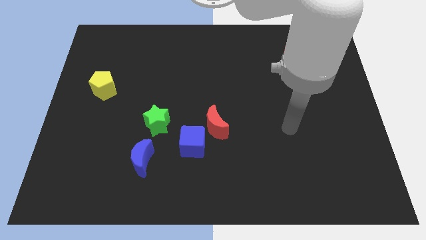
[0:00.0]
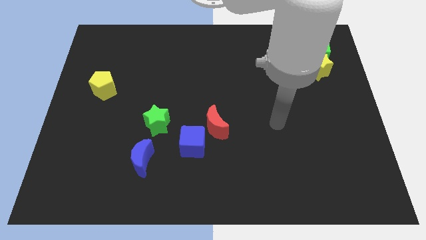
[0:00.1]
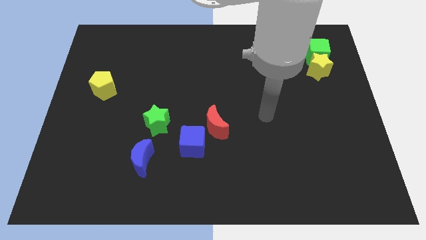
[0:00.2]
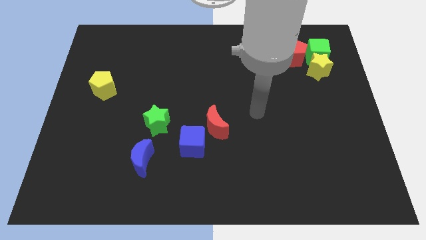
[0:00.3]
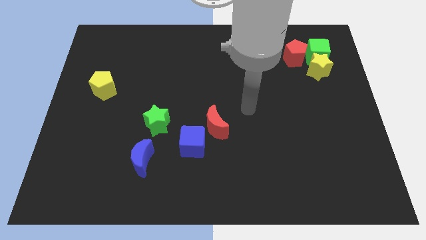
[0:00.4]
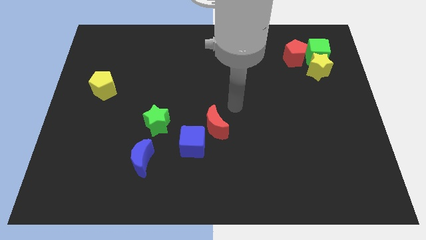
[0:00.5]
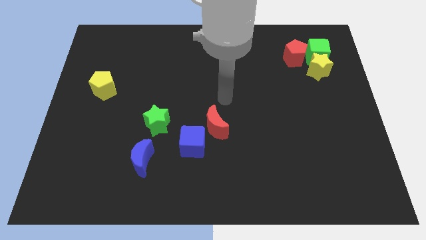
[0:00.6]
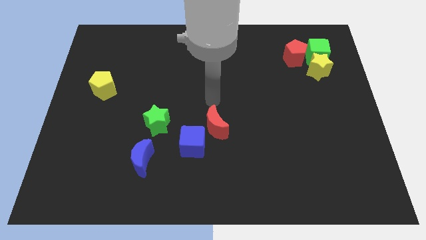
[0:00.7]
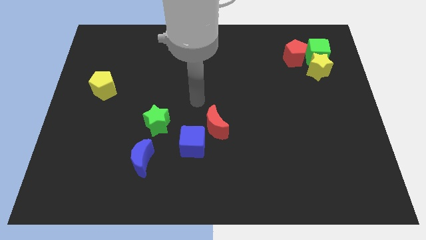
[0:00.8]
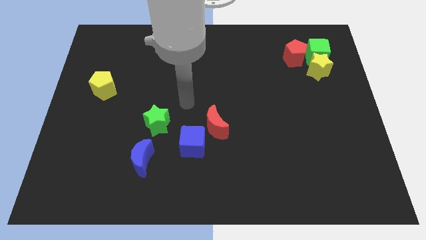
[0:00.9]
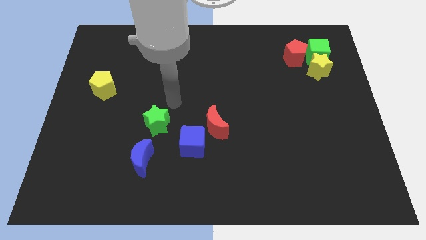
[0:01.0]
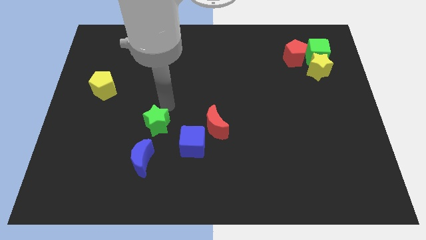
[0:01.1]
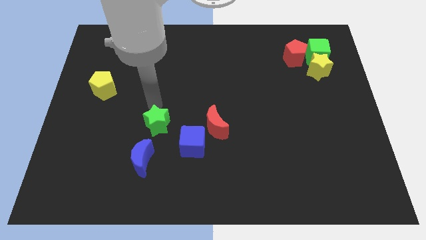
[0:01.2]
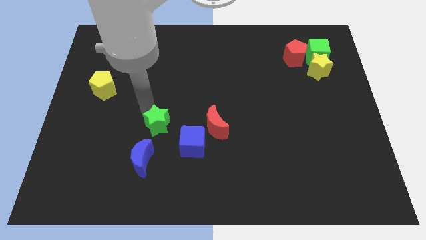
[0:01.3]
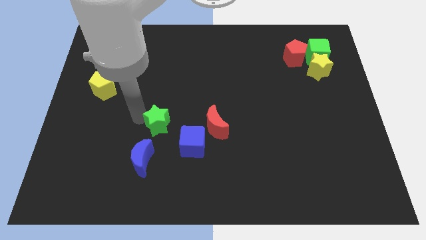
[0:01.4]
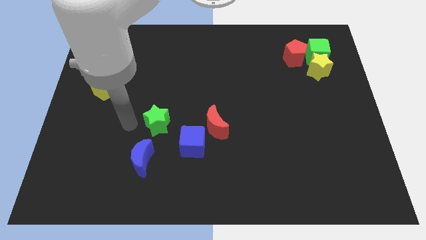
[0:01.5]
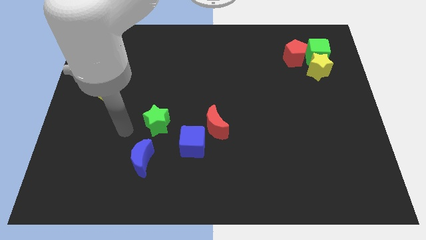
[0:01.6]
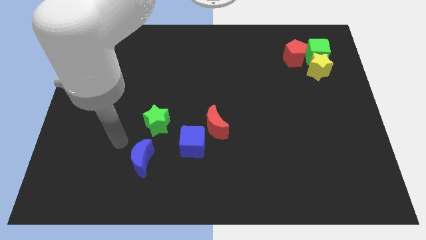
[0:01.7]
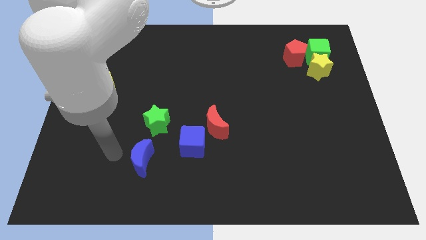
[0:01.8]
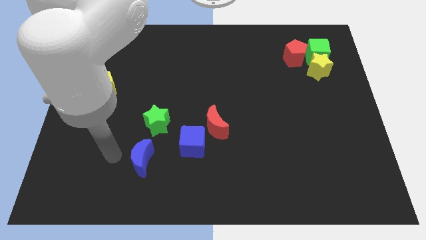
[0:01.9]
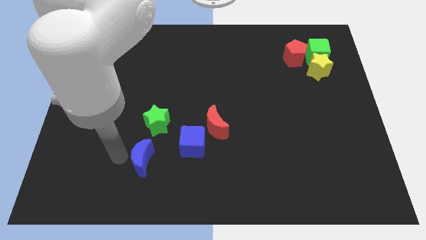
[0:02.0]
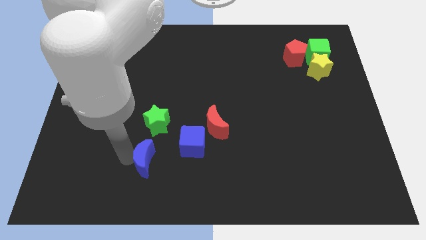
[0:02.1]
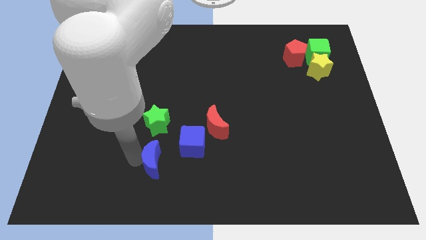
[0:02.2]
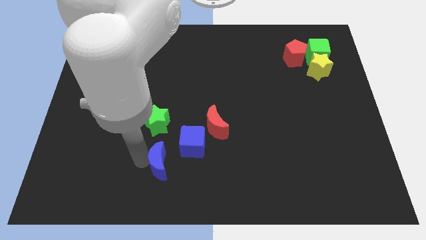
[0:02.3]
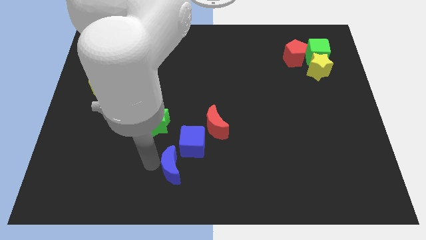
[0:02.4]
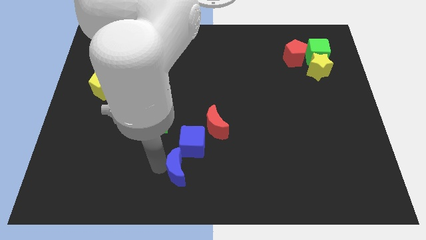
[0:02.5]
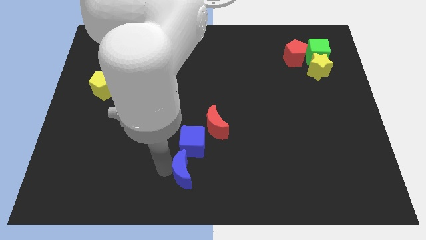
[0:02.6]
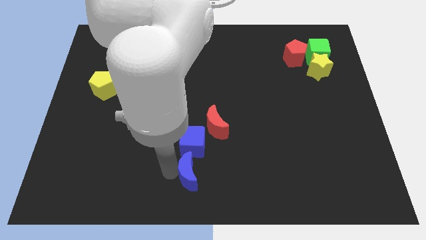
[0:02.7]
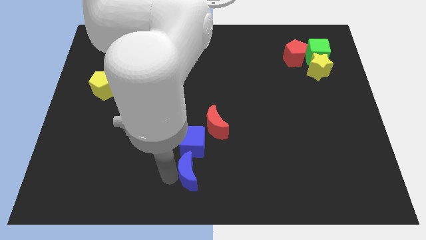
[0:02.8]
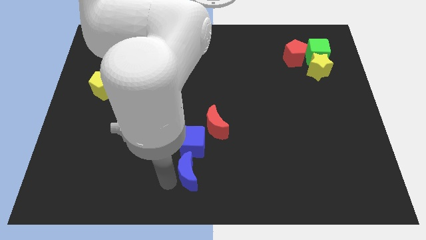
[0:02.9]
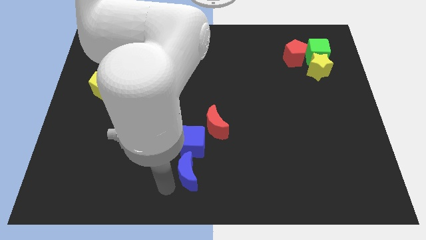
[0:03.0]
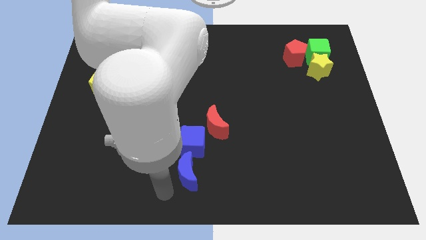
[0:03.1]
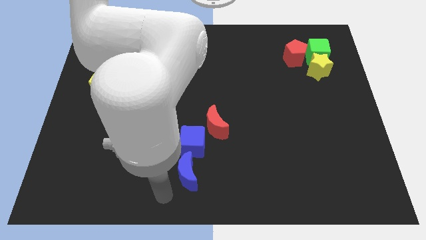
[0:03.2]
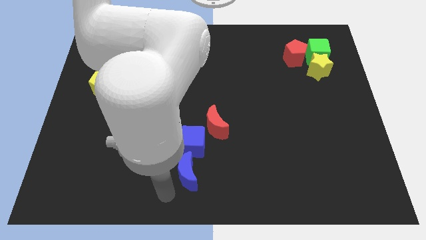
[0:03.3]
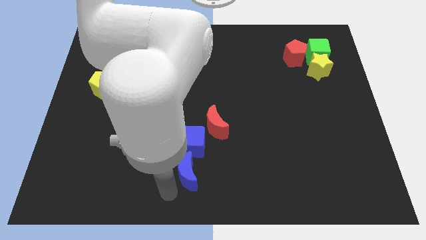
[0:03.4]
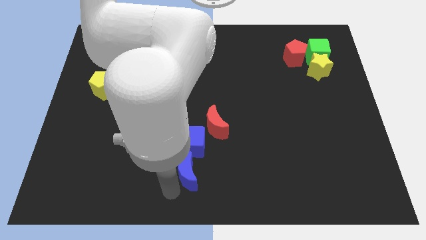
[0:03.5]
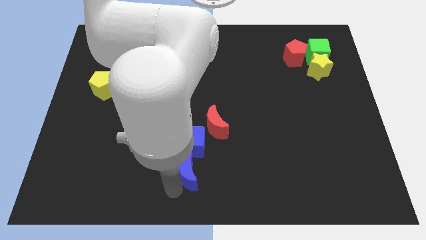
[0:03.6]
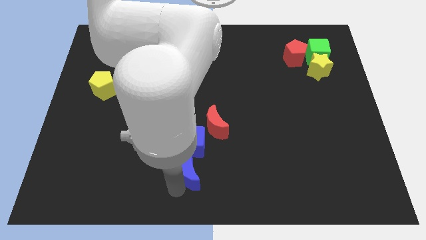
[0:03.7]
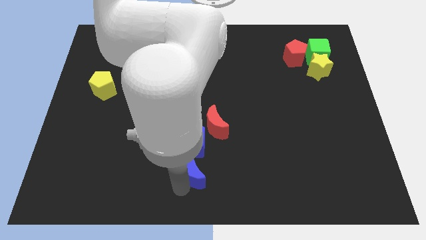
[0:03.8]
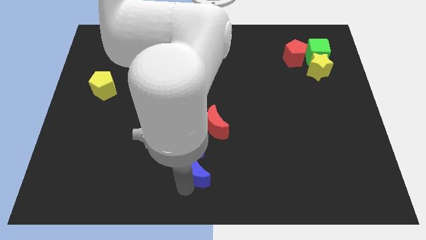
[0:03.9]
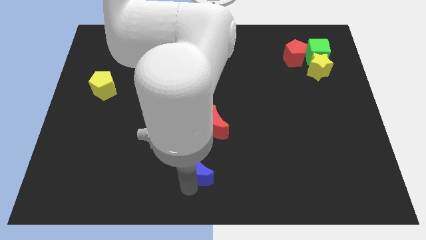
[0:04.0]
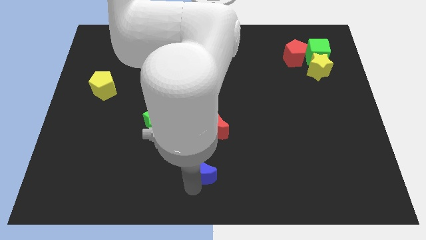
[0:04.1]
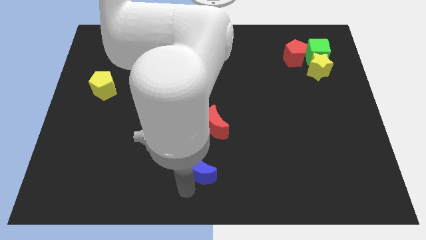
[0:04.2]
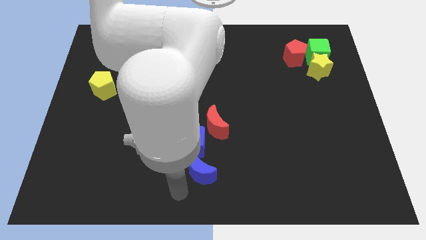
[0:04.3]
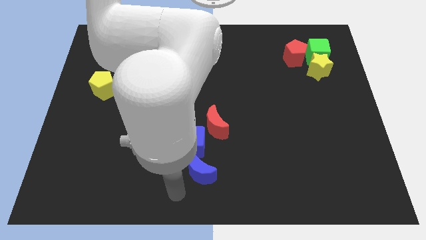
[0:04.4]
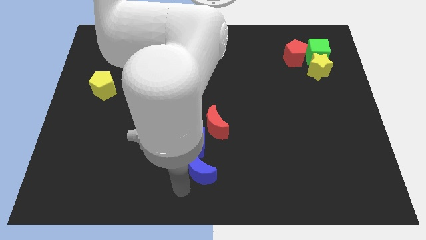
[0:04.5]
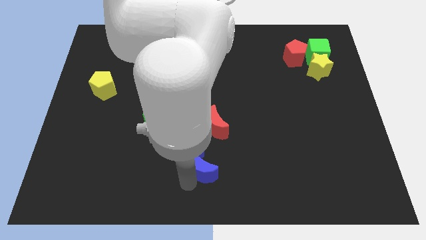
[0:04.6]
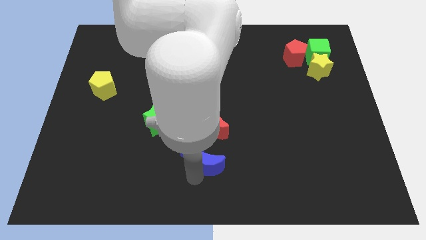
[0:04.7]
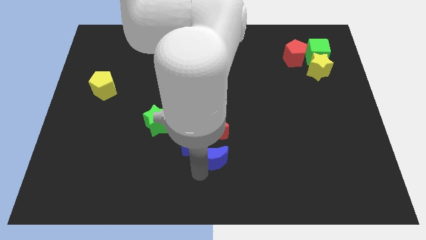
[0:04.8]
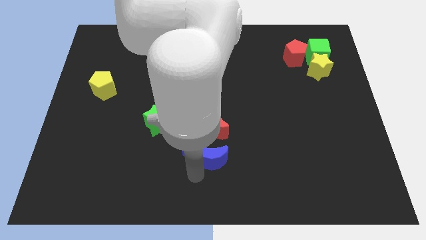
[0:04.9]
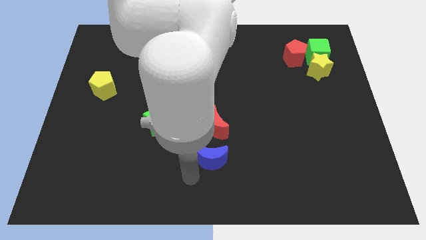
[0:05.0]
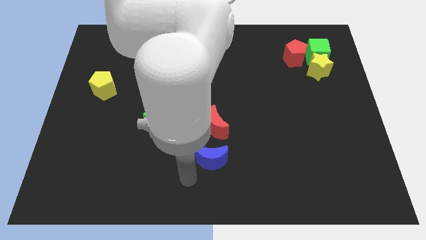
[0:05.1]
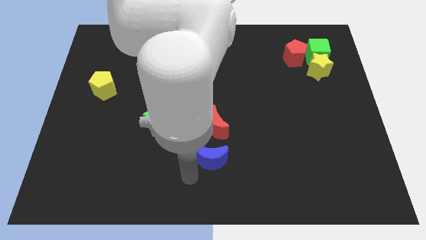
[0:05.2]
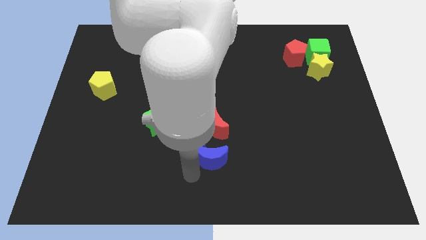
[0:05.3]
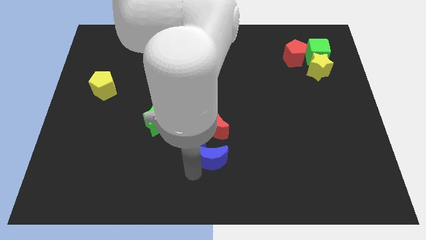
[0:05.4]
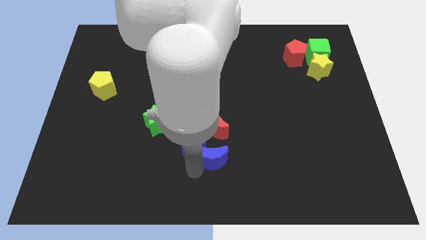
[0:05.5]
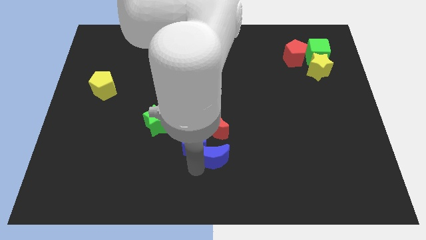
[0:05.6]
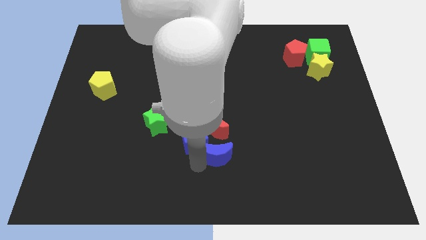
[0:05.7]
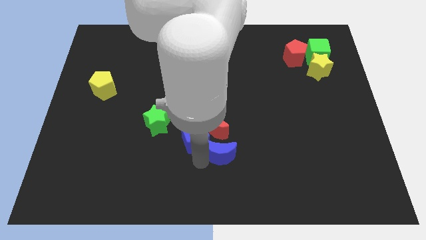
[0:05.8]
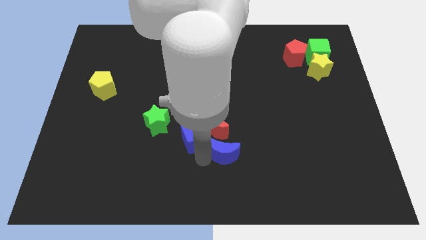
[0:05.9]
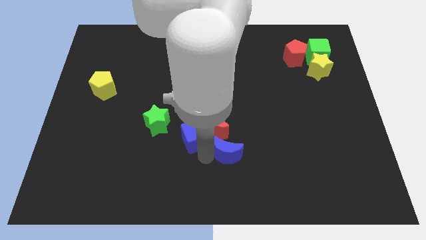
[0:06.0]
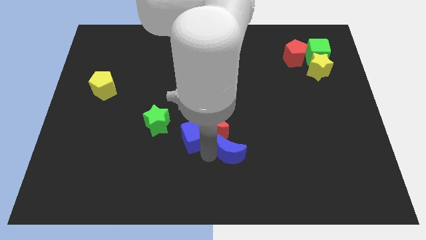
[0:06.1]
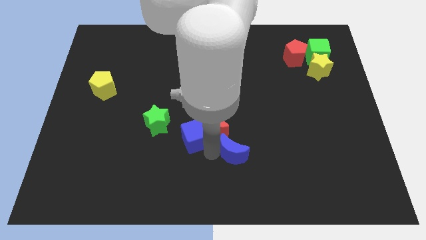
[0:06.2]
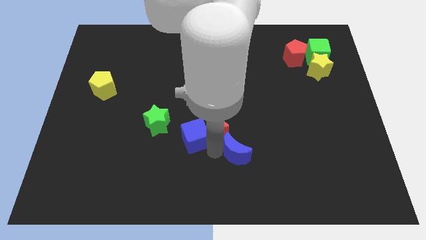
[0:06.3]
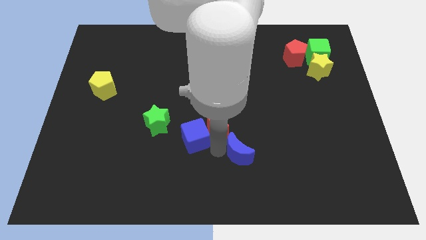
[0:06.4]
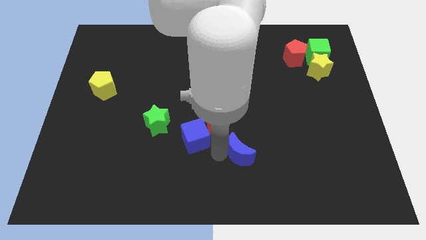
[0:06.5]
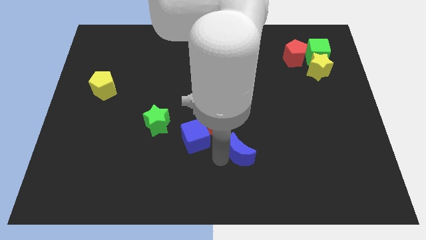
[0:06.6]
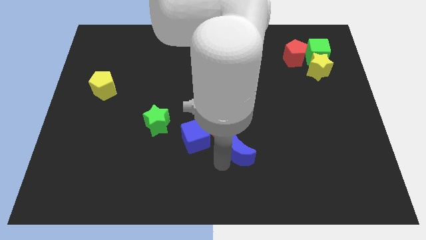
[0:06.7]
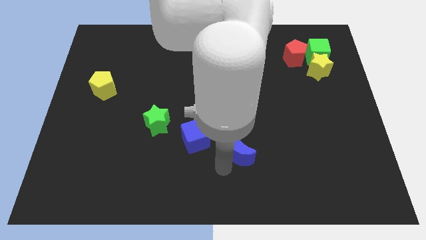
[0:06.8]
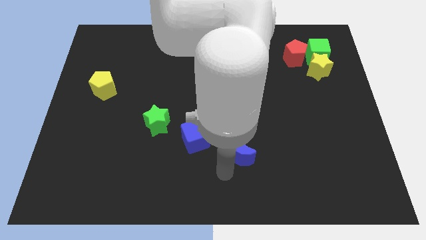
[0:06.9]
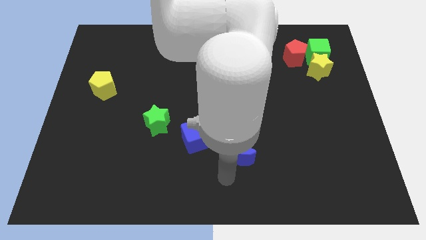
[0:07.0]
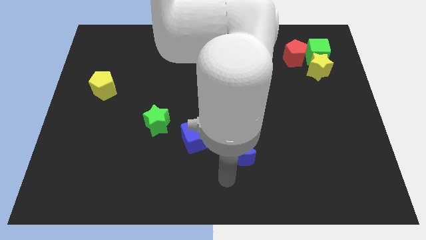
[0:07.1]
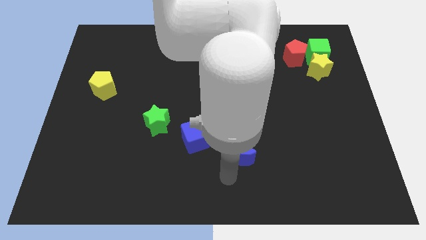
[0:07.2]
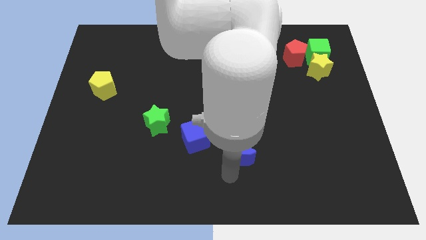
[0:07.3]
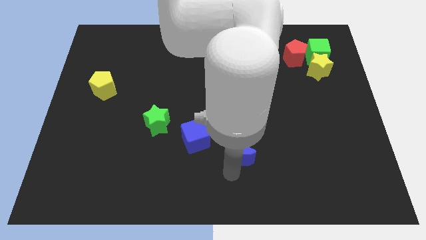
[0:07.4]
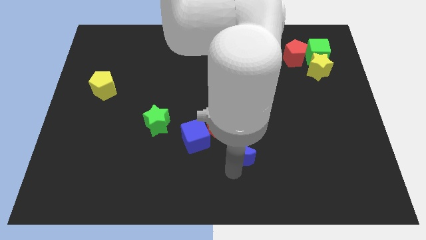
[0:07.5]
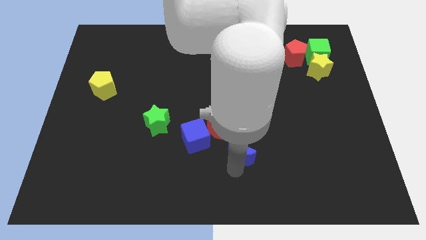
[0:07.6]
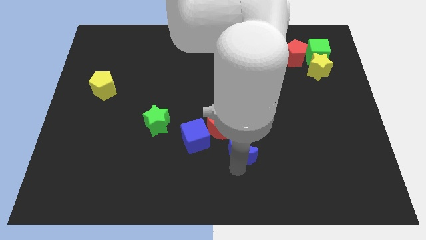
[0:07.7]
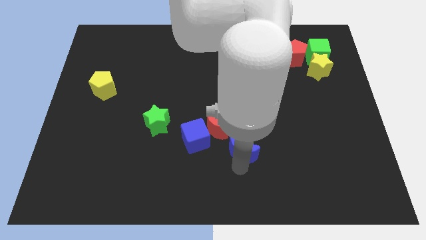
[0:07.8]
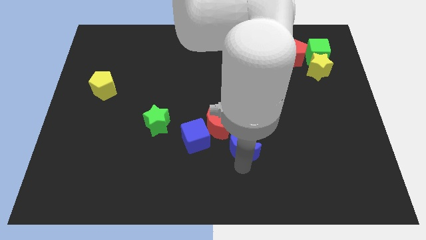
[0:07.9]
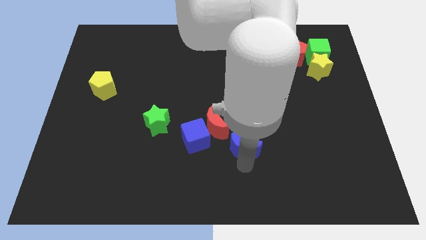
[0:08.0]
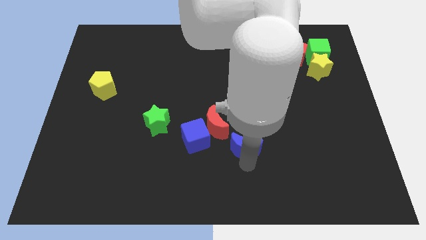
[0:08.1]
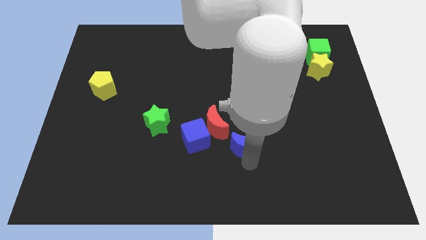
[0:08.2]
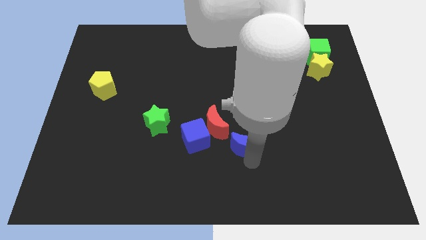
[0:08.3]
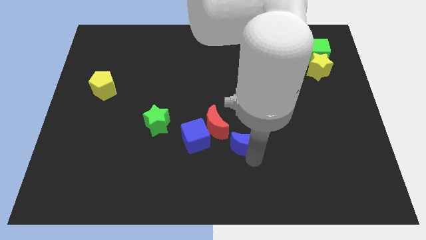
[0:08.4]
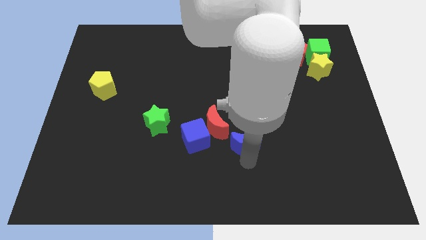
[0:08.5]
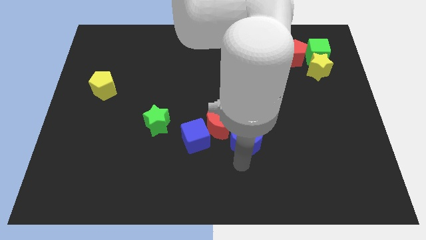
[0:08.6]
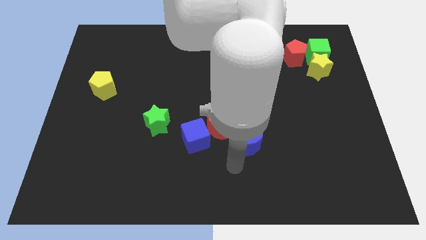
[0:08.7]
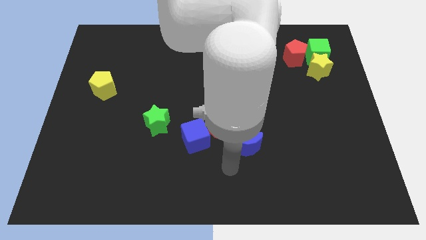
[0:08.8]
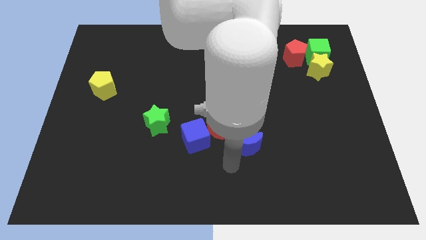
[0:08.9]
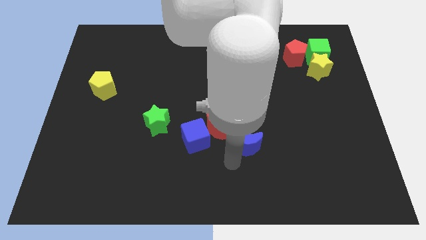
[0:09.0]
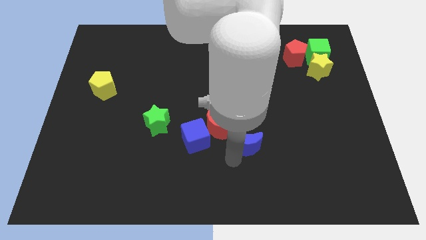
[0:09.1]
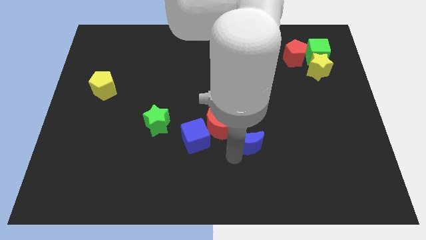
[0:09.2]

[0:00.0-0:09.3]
slide the blue moon to the right side of the red moon
